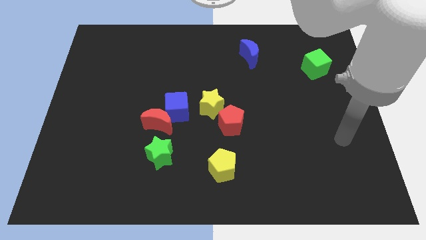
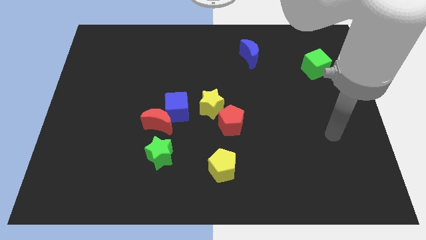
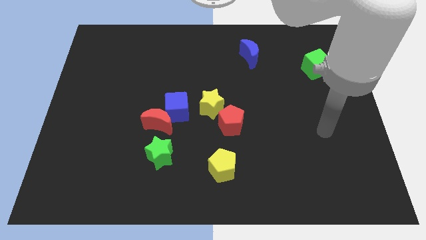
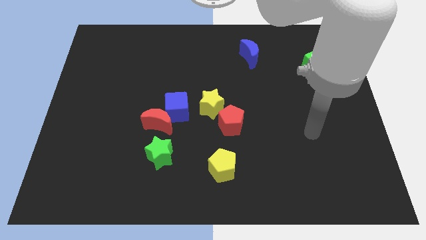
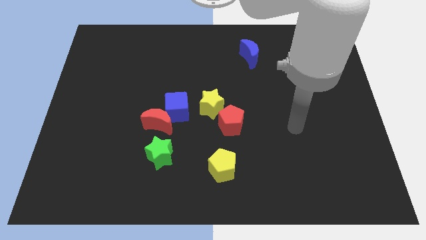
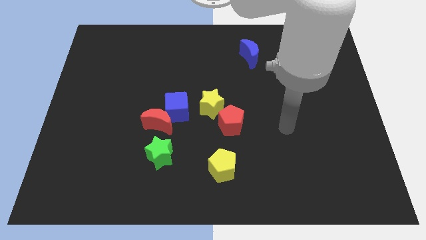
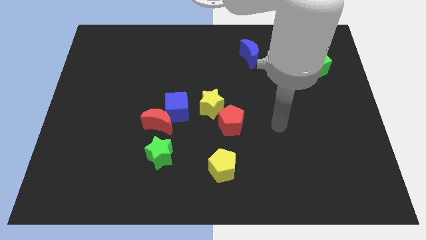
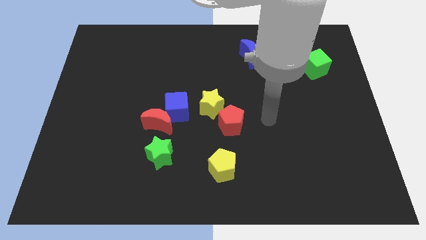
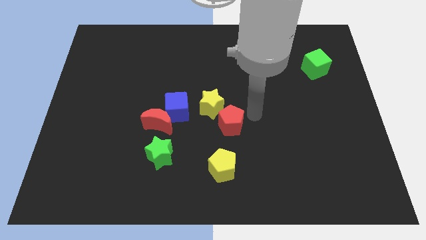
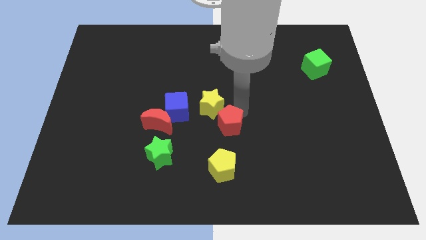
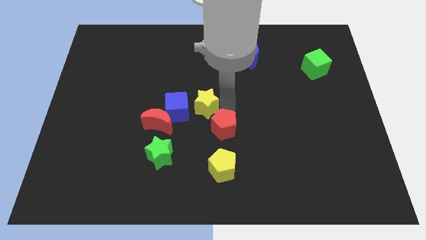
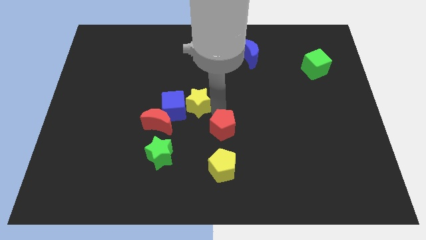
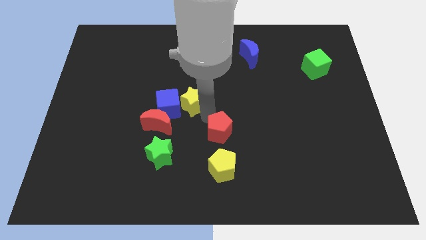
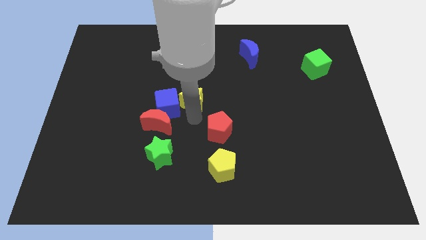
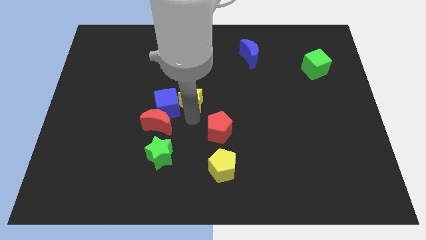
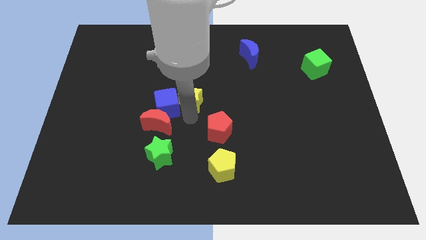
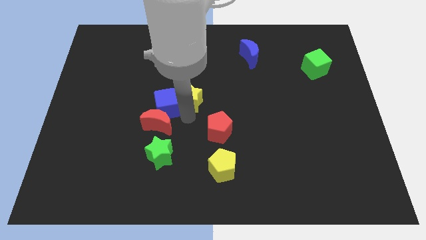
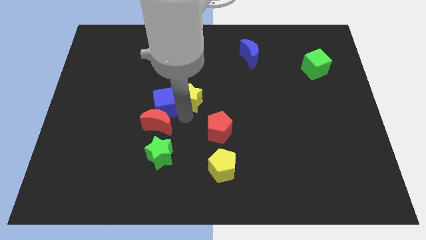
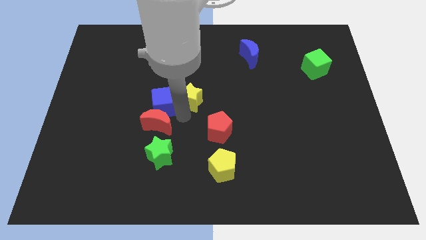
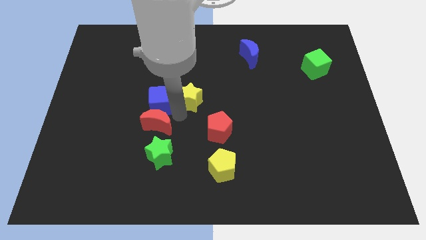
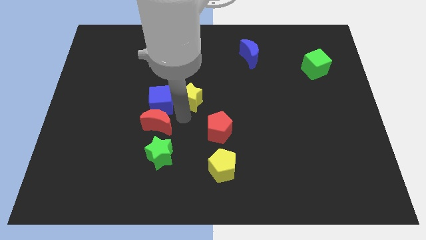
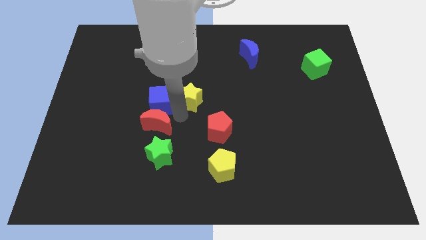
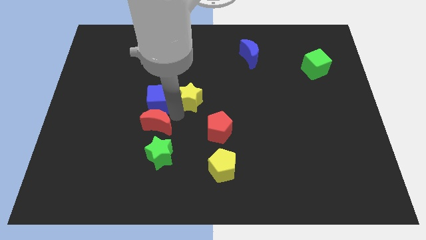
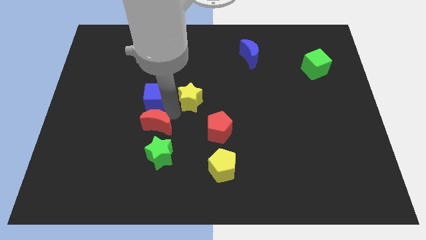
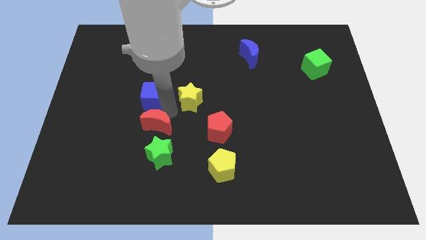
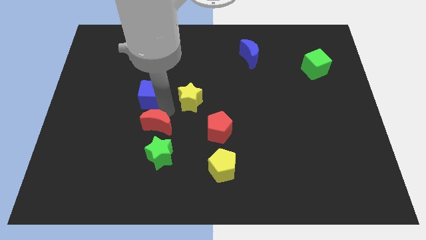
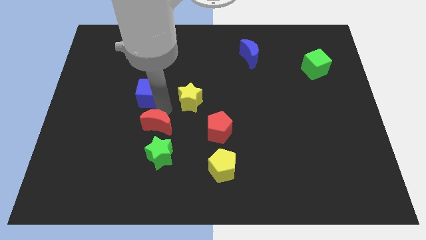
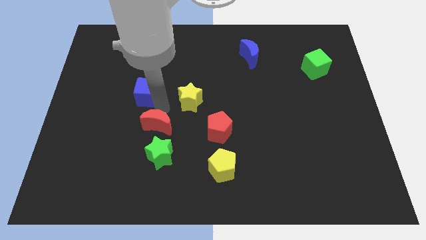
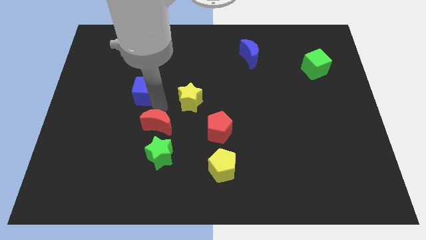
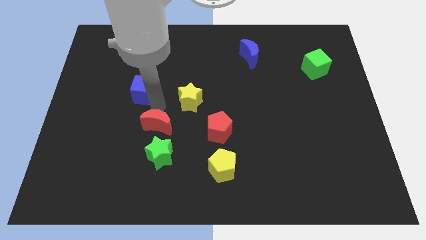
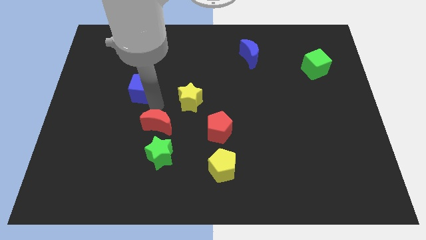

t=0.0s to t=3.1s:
pull the blue cube apart from the red moon and yellow star

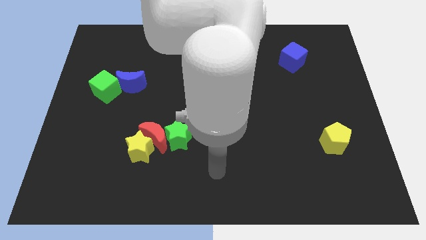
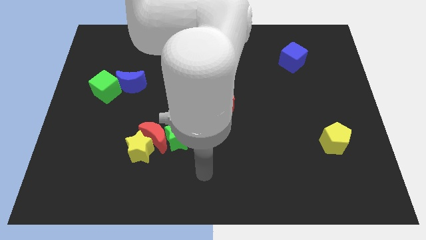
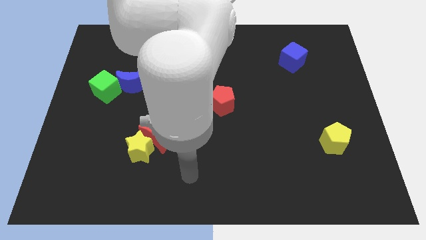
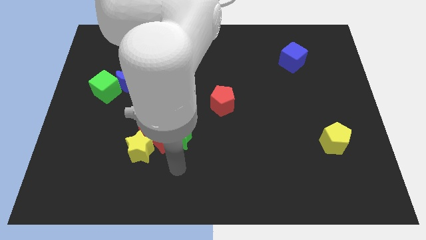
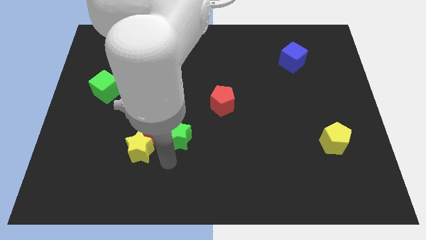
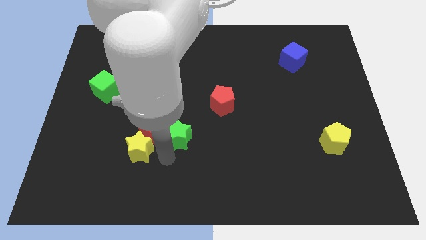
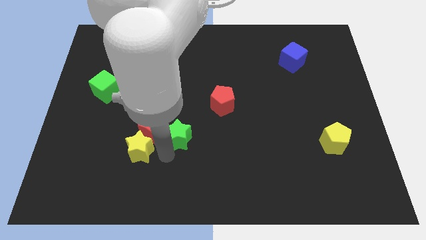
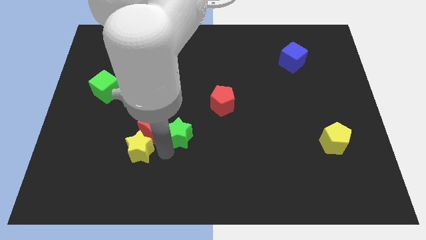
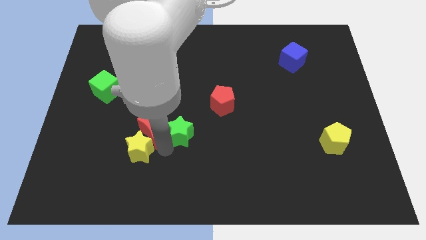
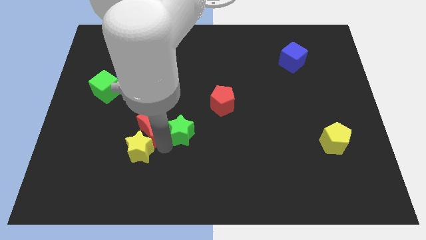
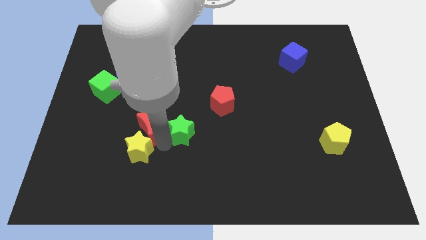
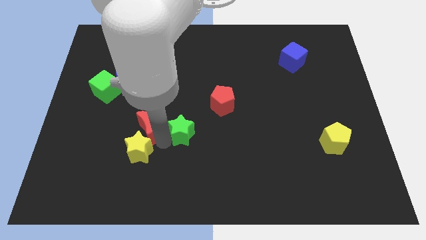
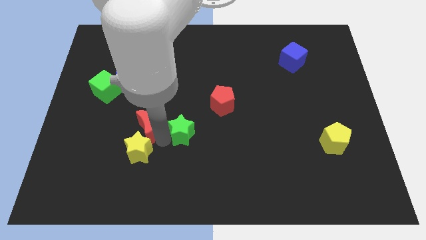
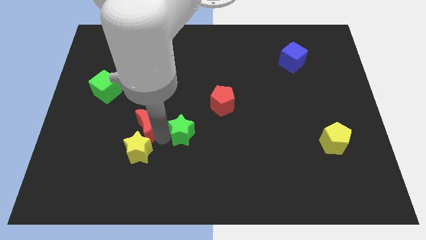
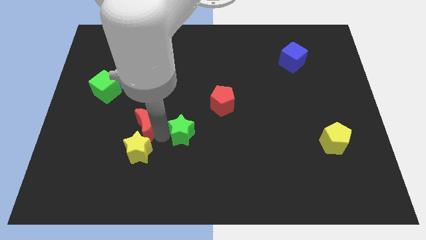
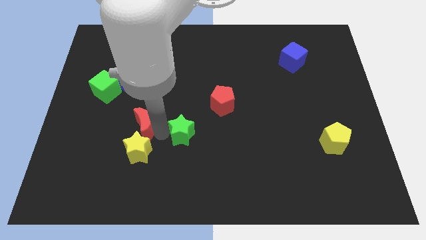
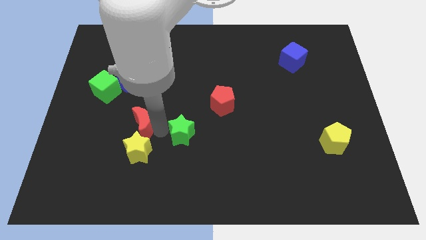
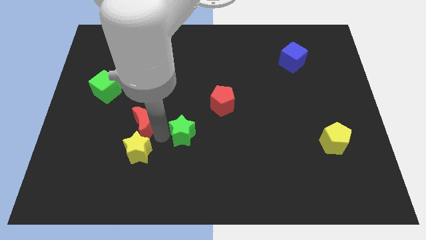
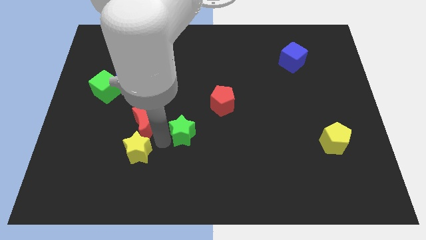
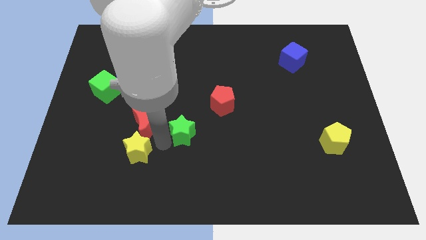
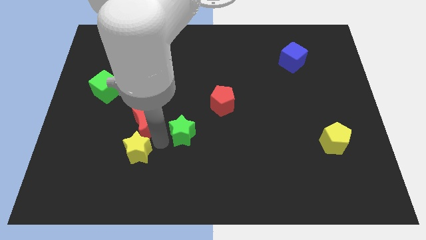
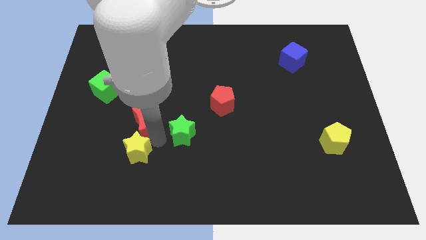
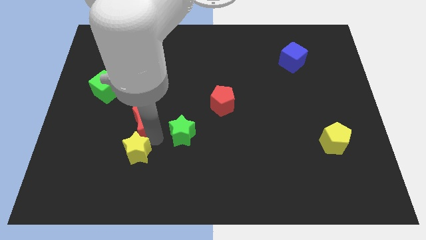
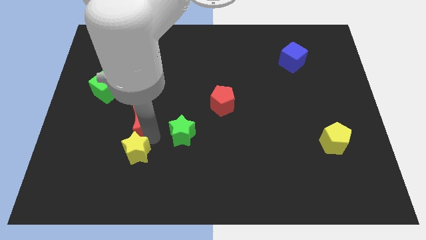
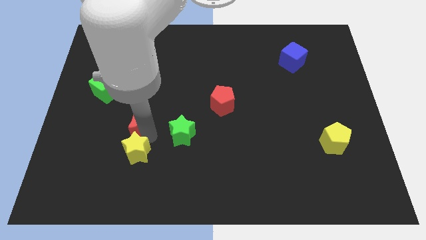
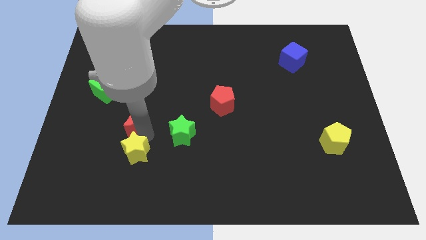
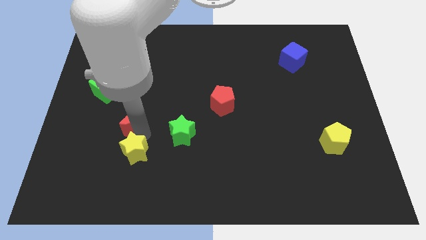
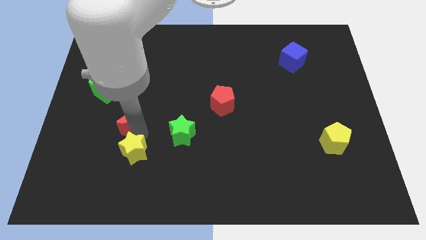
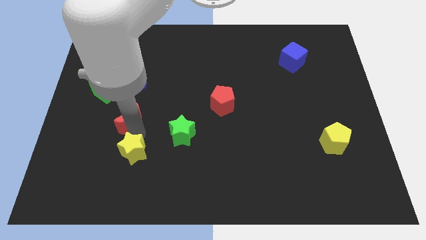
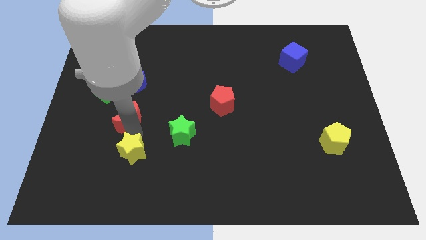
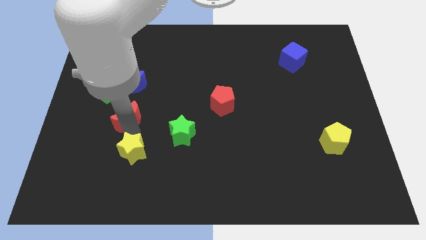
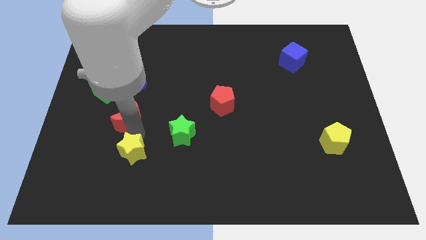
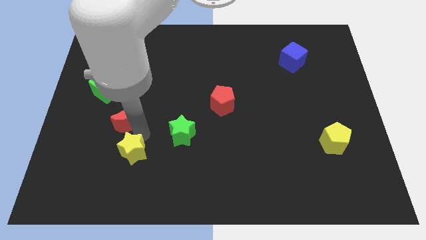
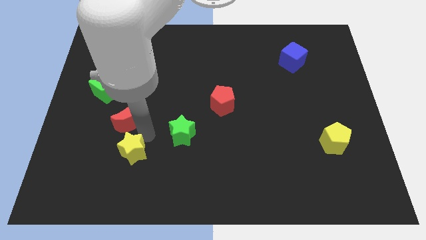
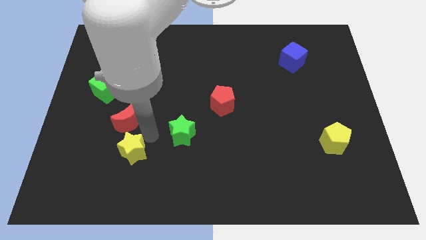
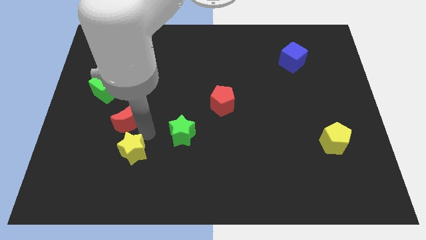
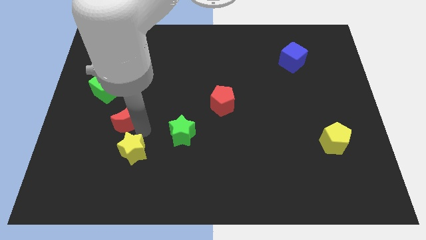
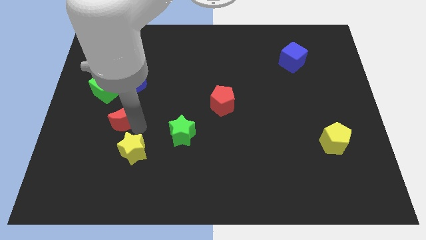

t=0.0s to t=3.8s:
pull the red moon apart from the yellow star and green star

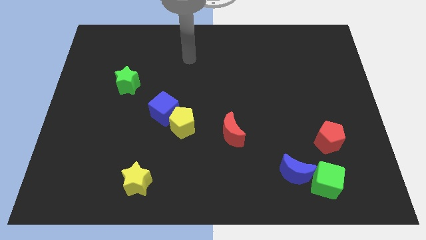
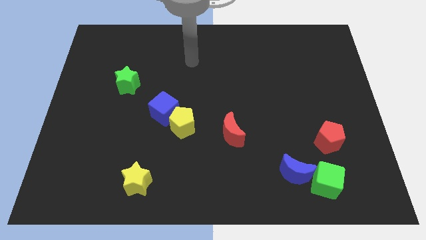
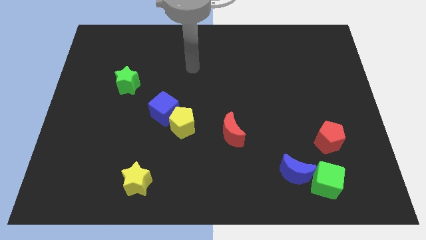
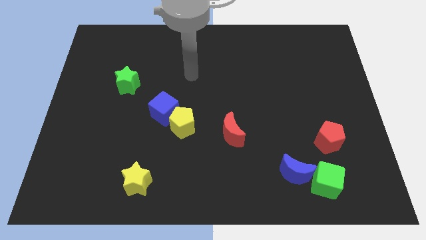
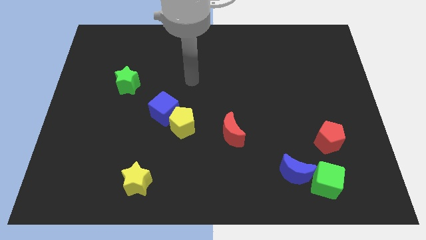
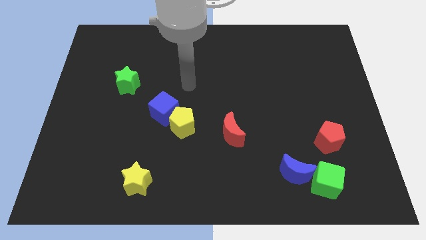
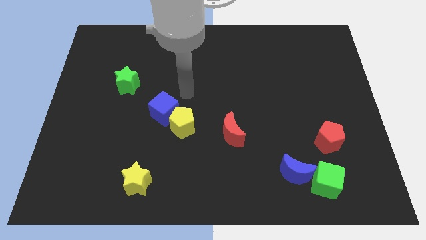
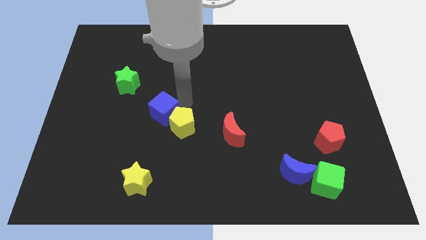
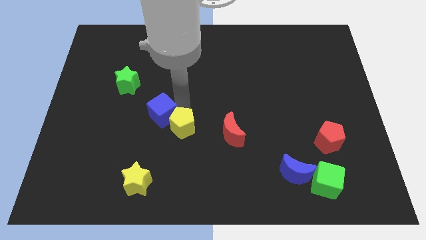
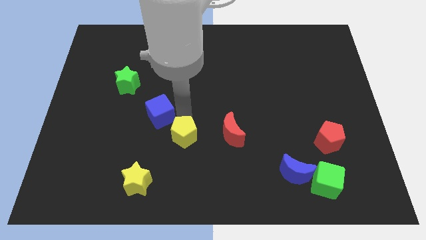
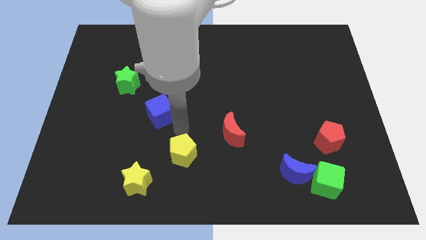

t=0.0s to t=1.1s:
separate the blue cube from the yellow pentagon

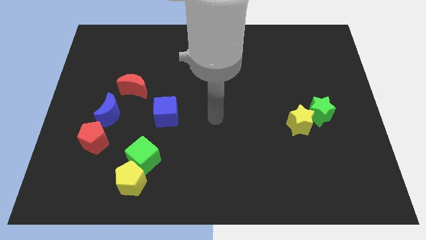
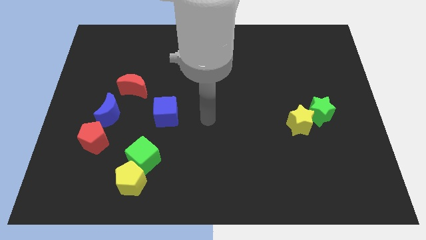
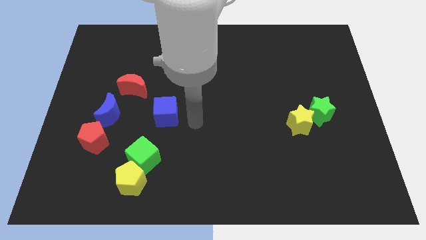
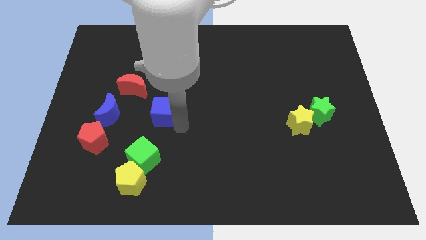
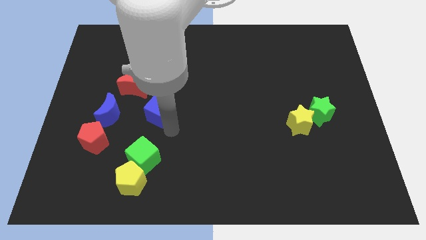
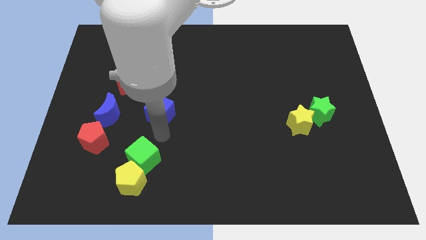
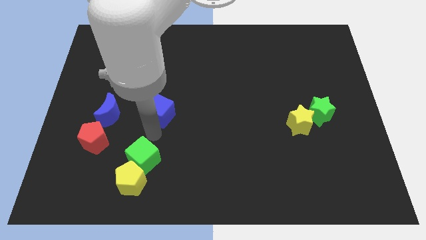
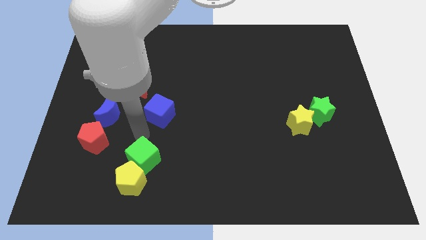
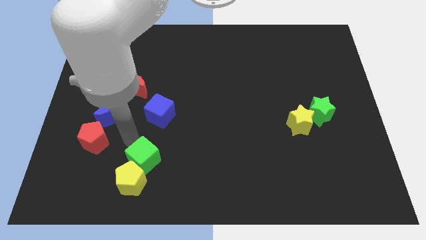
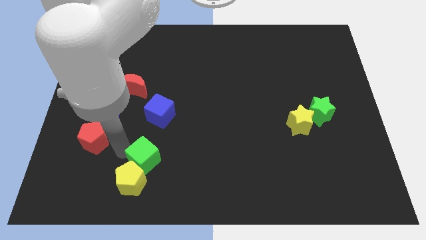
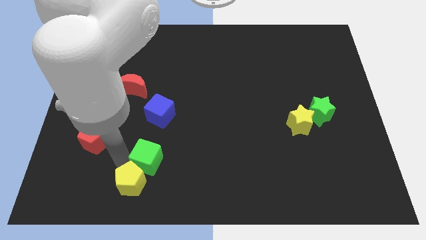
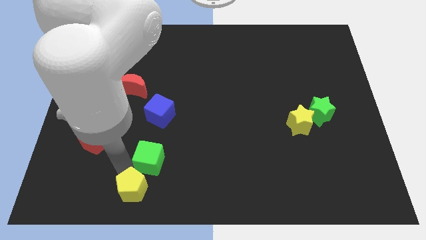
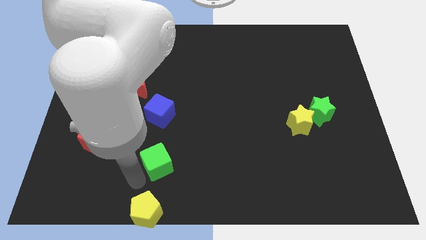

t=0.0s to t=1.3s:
pull the green cube apart from the yellow pentagon

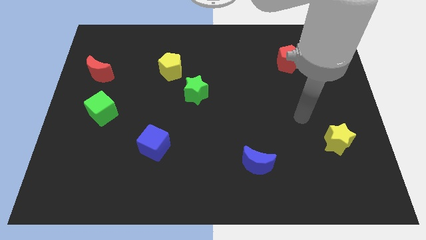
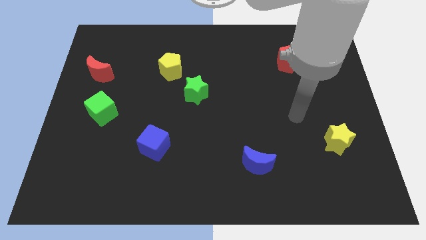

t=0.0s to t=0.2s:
move the green star away from the yellow pentagon
